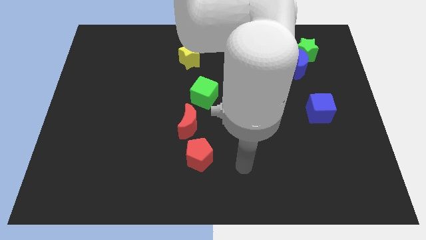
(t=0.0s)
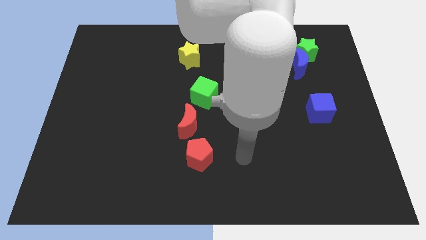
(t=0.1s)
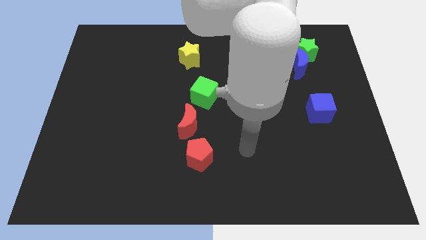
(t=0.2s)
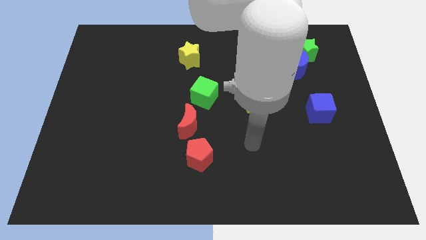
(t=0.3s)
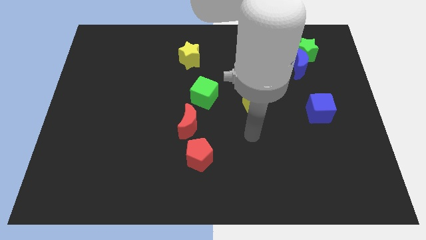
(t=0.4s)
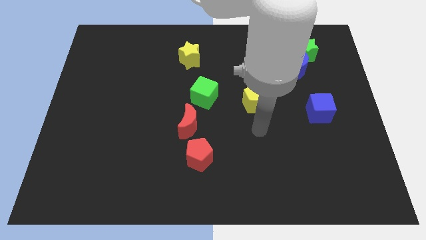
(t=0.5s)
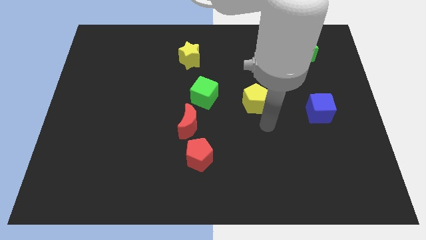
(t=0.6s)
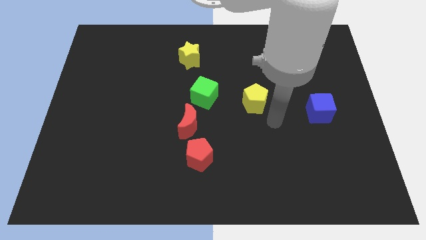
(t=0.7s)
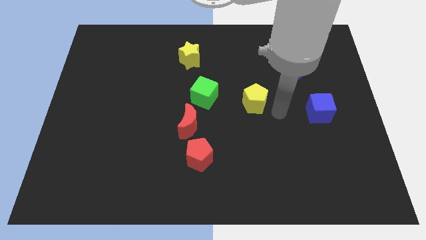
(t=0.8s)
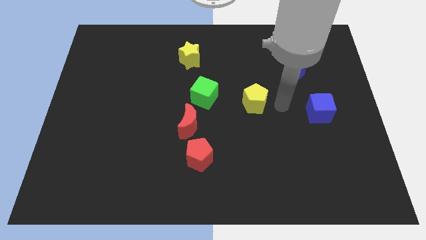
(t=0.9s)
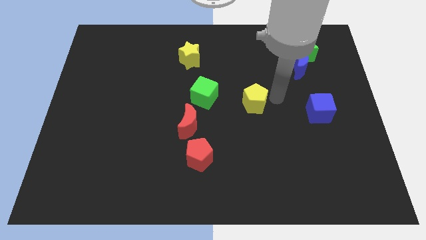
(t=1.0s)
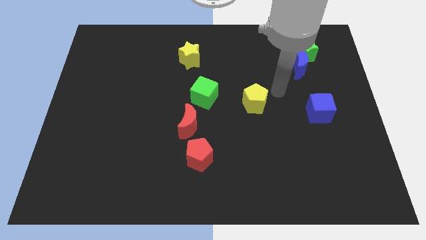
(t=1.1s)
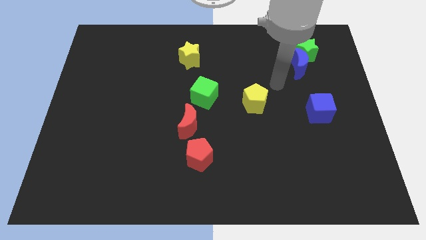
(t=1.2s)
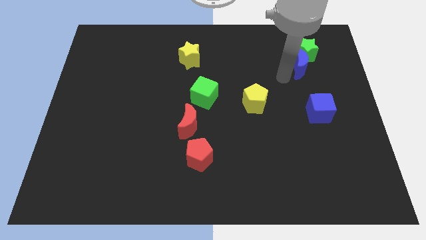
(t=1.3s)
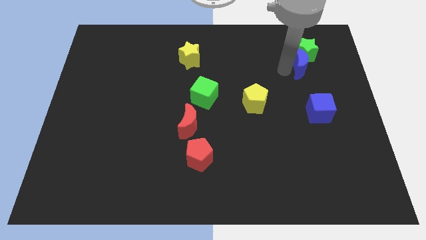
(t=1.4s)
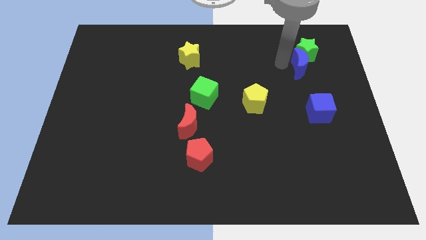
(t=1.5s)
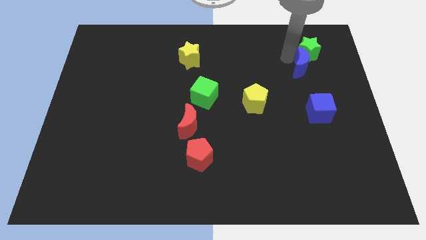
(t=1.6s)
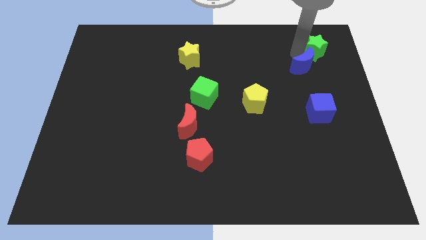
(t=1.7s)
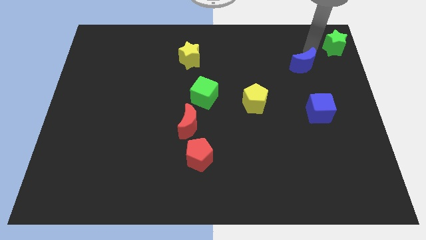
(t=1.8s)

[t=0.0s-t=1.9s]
move the blue moon away from the green star

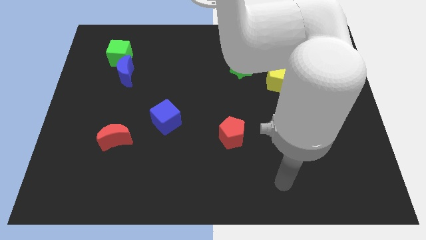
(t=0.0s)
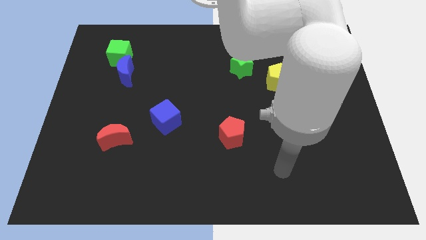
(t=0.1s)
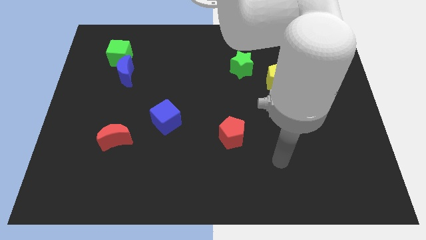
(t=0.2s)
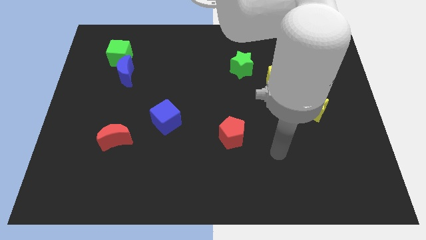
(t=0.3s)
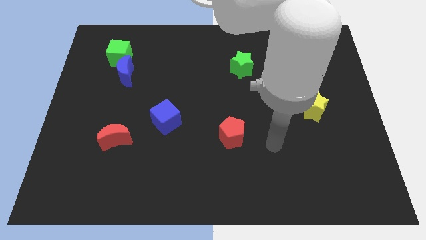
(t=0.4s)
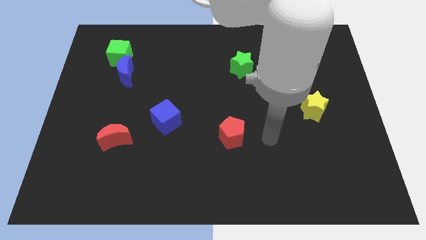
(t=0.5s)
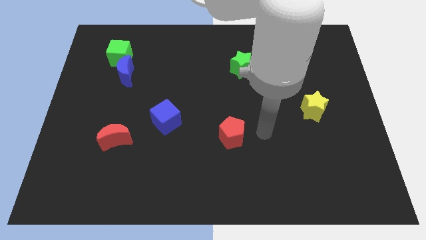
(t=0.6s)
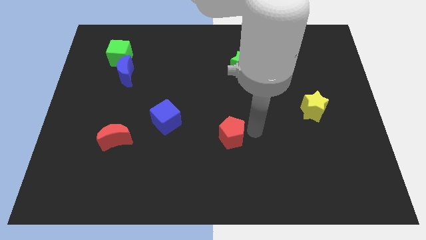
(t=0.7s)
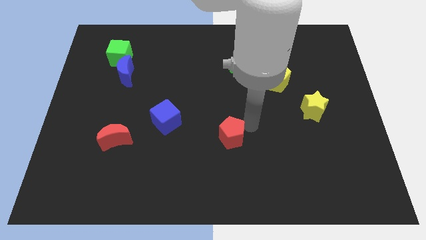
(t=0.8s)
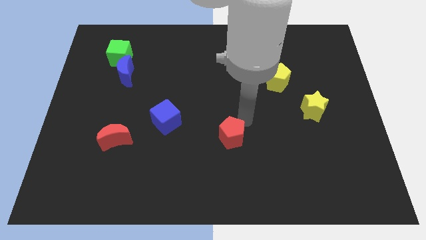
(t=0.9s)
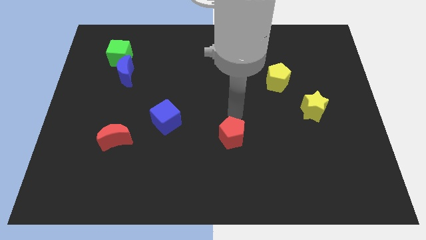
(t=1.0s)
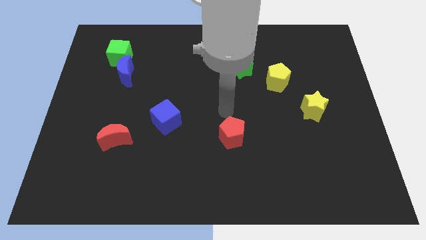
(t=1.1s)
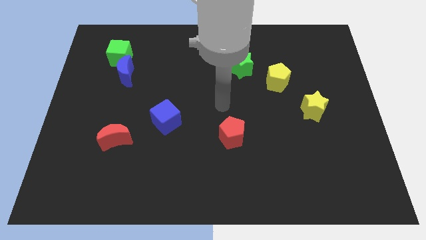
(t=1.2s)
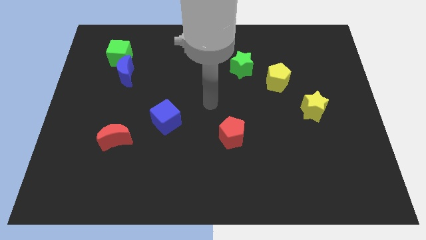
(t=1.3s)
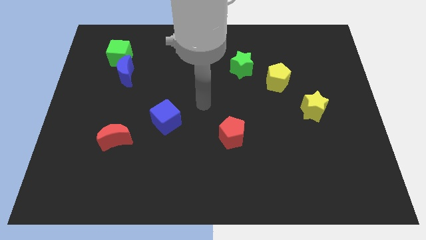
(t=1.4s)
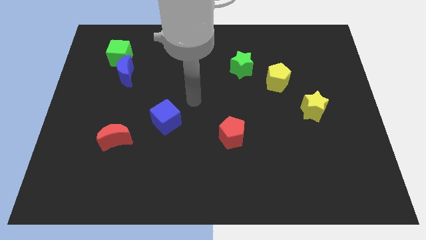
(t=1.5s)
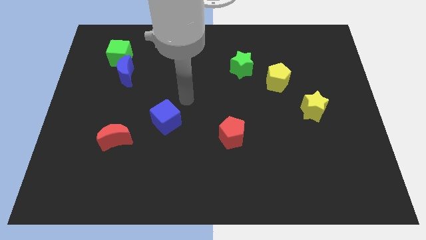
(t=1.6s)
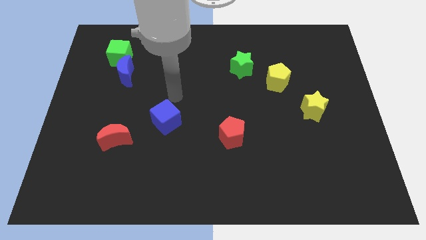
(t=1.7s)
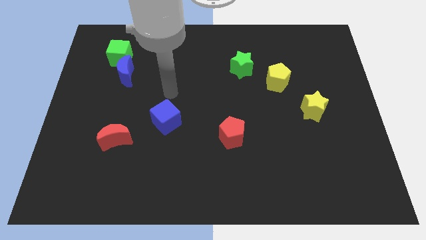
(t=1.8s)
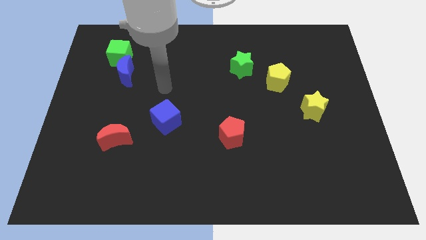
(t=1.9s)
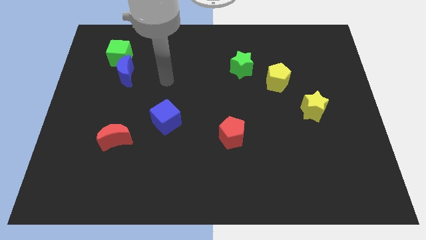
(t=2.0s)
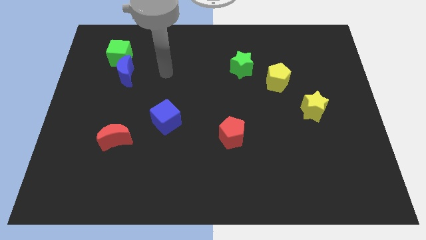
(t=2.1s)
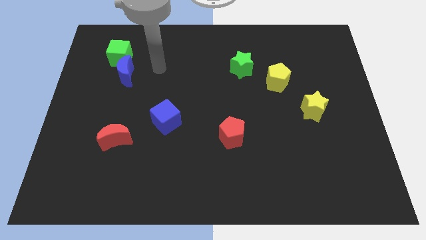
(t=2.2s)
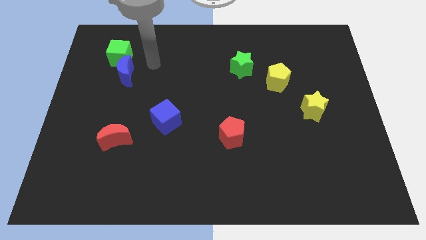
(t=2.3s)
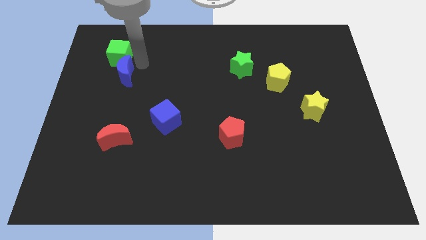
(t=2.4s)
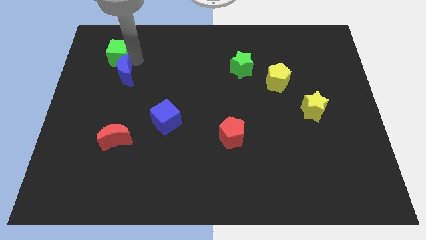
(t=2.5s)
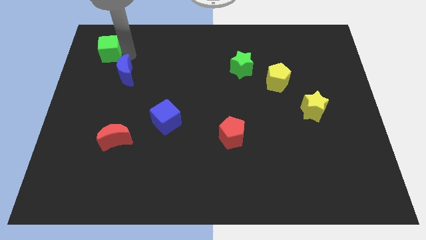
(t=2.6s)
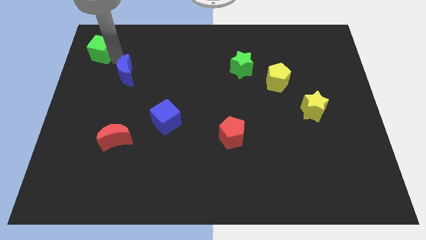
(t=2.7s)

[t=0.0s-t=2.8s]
pull the blue moon apart from the green cube

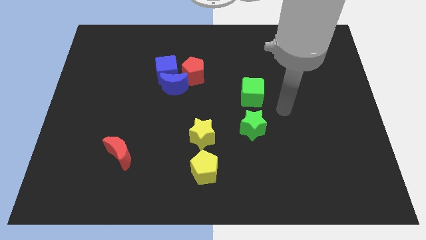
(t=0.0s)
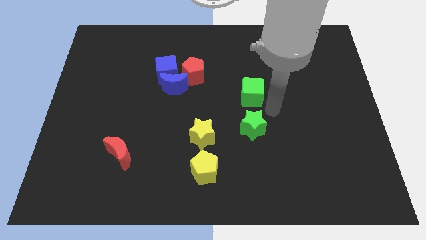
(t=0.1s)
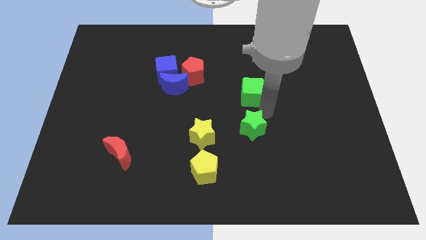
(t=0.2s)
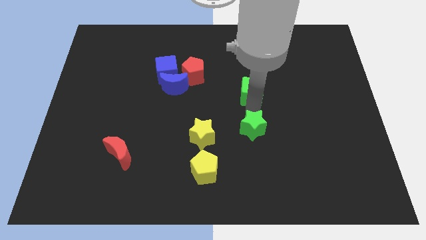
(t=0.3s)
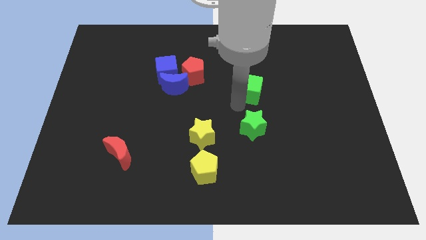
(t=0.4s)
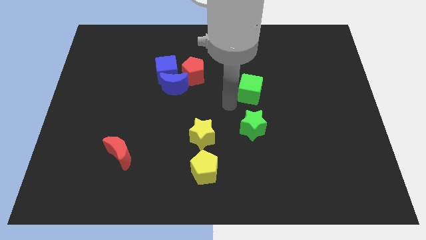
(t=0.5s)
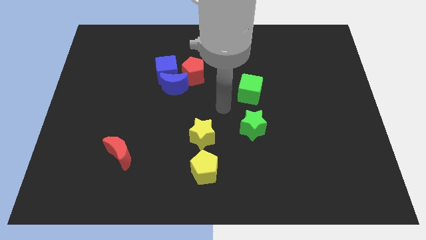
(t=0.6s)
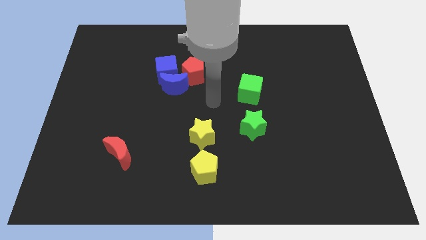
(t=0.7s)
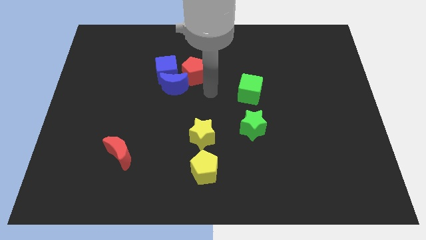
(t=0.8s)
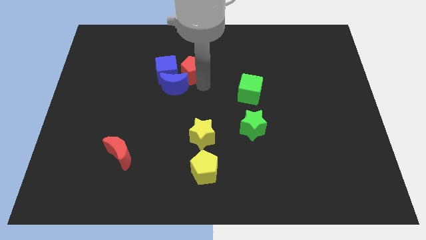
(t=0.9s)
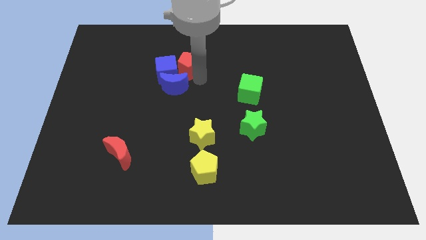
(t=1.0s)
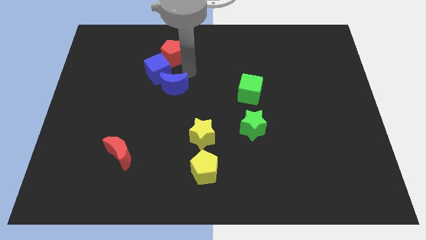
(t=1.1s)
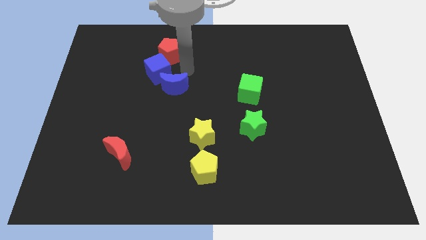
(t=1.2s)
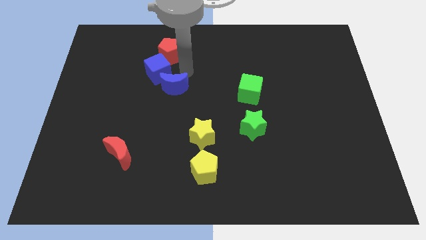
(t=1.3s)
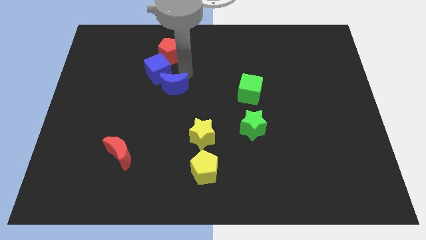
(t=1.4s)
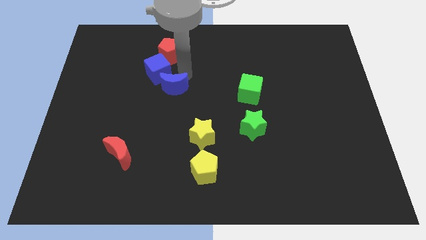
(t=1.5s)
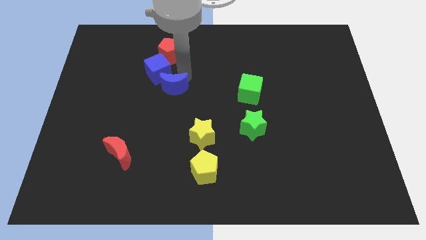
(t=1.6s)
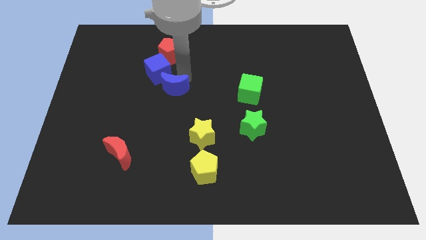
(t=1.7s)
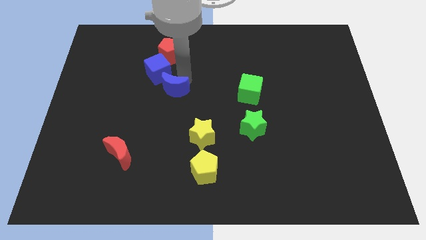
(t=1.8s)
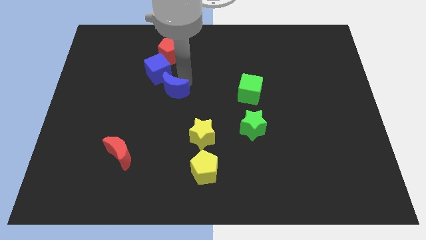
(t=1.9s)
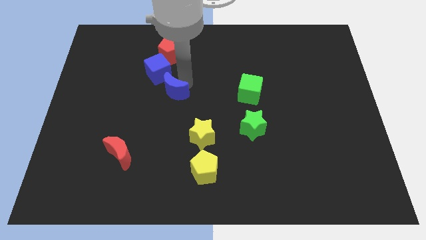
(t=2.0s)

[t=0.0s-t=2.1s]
pull the blue moon apart from the blue cube and red pentagon

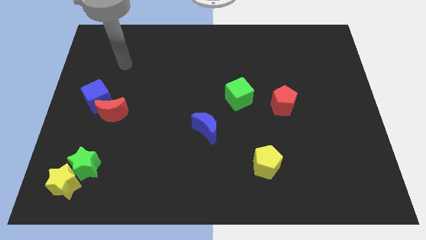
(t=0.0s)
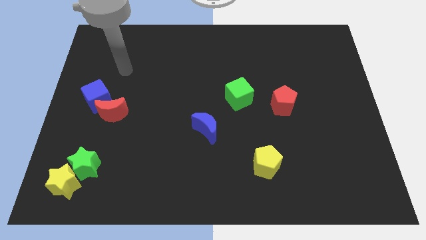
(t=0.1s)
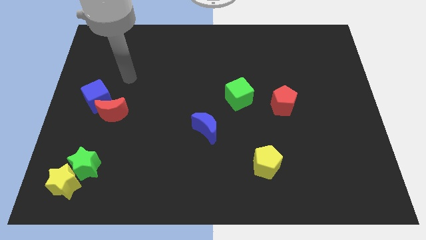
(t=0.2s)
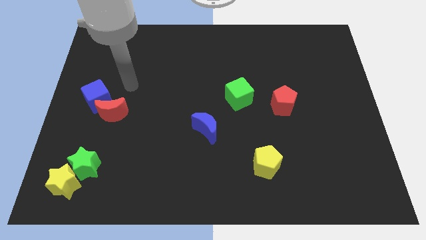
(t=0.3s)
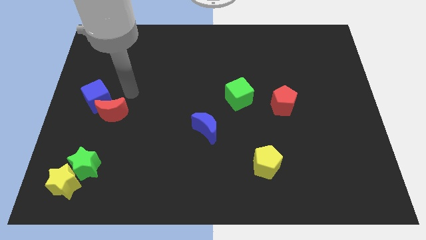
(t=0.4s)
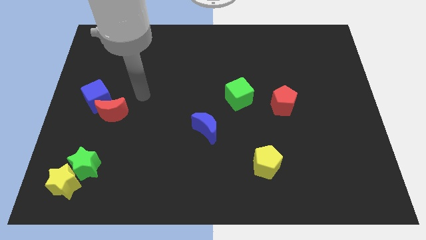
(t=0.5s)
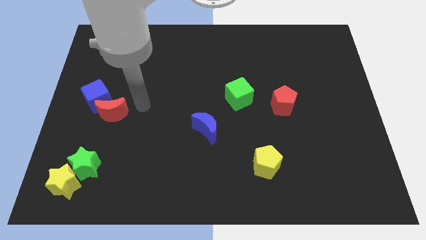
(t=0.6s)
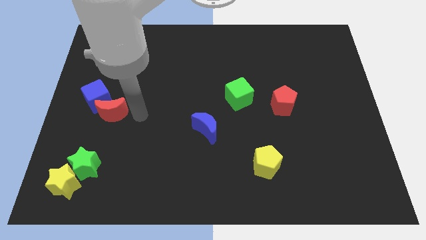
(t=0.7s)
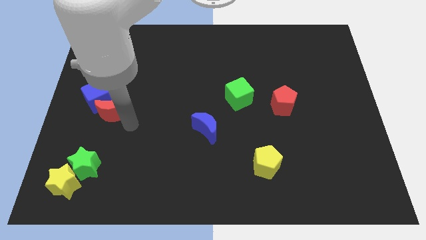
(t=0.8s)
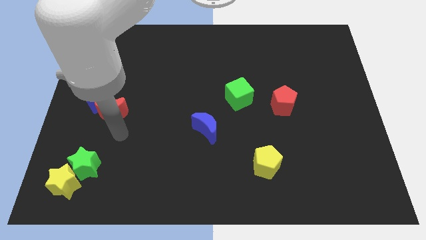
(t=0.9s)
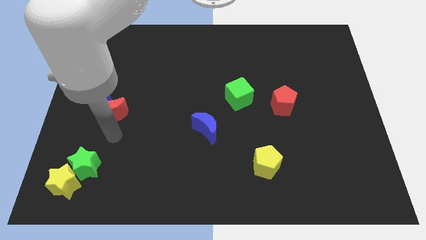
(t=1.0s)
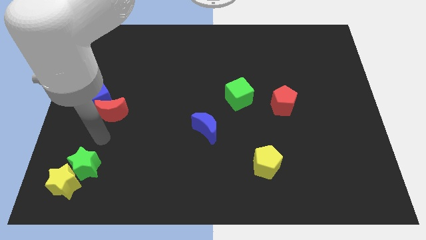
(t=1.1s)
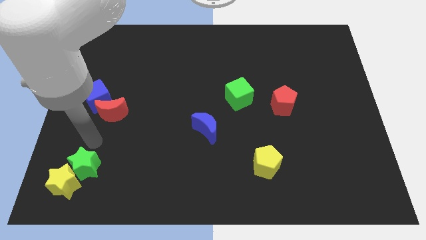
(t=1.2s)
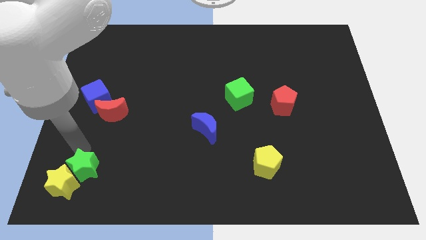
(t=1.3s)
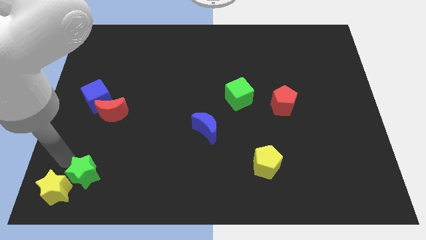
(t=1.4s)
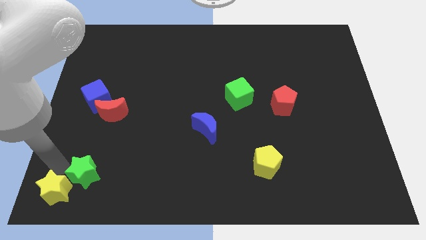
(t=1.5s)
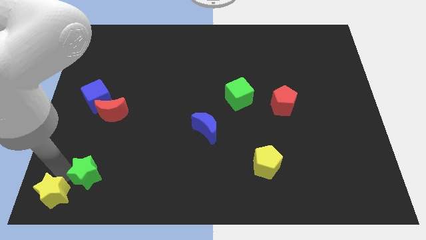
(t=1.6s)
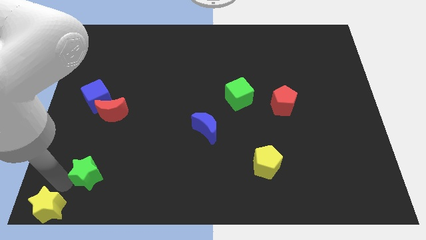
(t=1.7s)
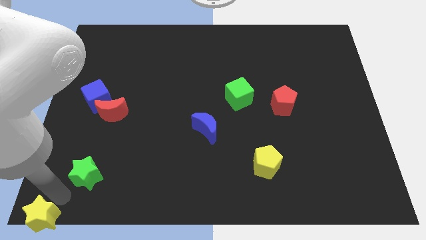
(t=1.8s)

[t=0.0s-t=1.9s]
pull the green star apart from the yellow star

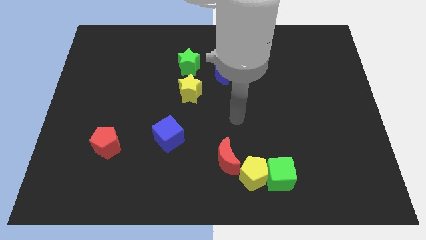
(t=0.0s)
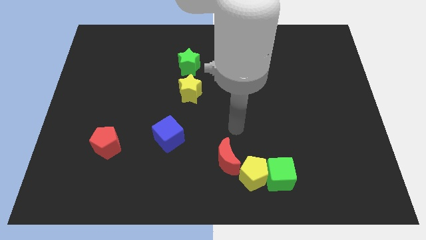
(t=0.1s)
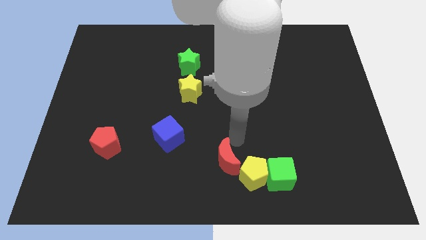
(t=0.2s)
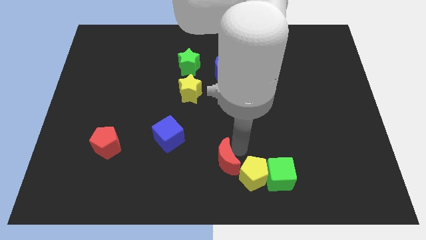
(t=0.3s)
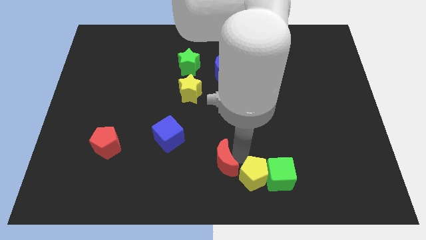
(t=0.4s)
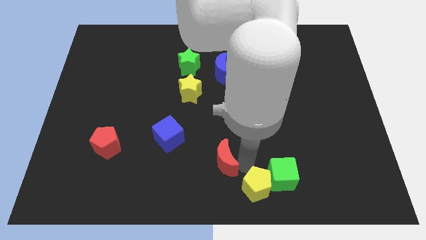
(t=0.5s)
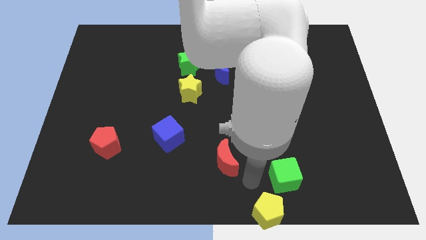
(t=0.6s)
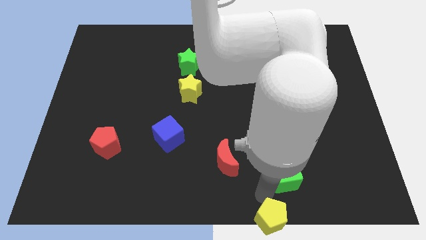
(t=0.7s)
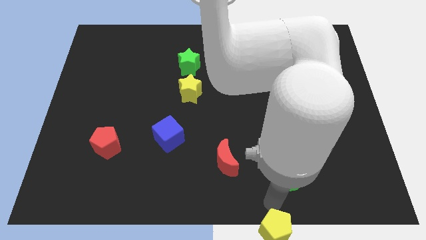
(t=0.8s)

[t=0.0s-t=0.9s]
move the green cube away from the yellow pentagon
